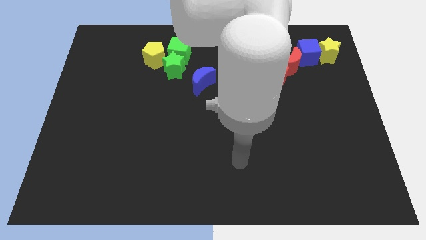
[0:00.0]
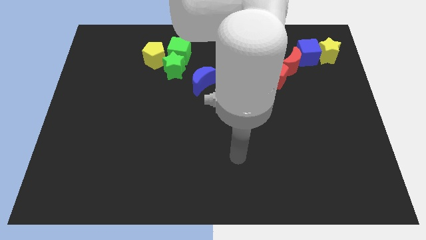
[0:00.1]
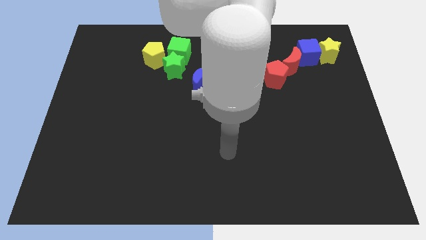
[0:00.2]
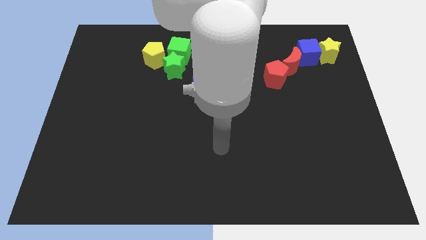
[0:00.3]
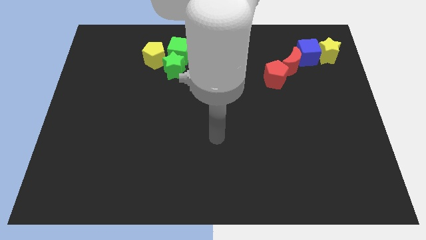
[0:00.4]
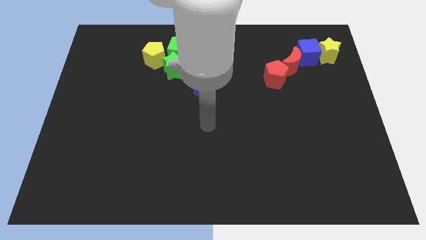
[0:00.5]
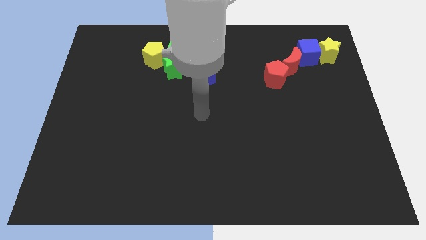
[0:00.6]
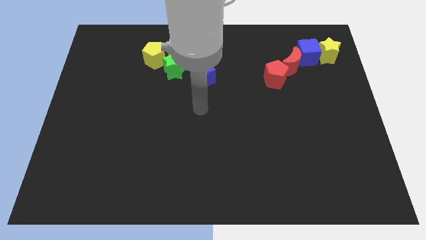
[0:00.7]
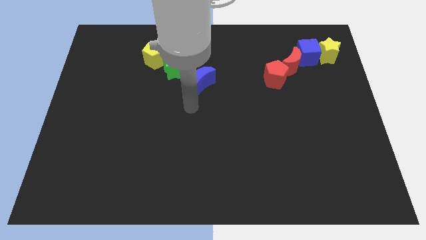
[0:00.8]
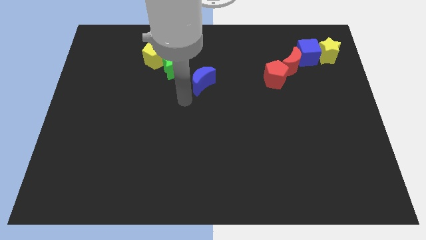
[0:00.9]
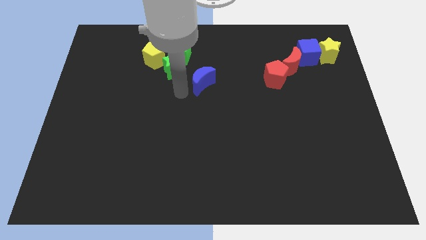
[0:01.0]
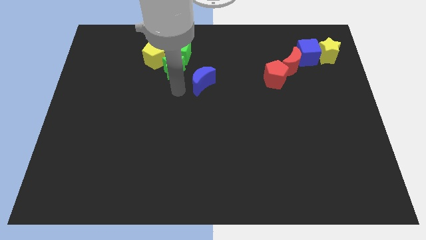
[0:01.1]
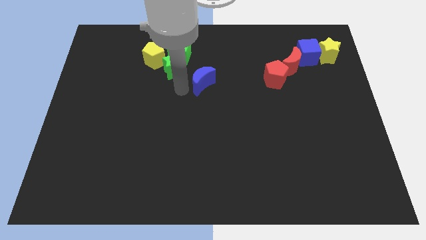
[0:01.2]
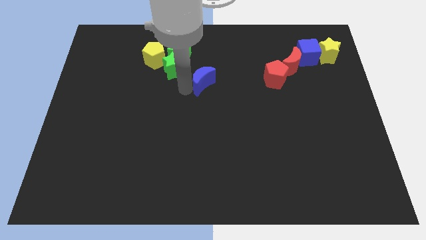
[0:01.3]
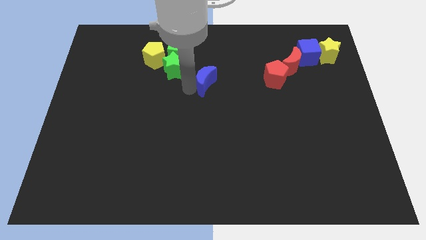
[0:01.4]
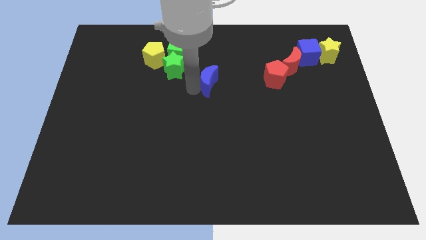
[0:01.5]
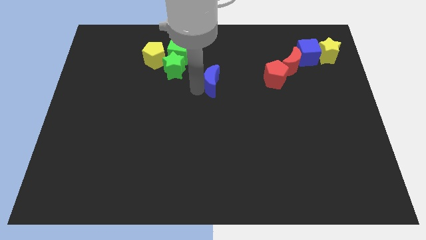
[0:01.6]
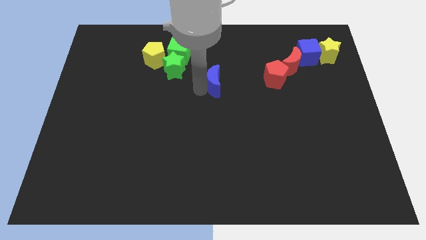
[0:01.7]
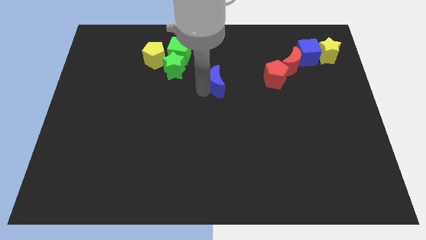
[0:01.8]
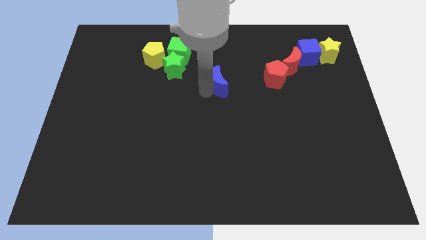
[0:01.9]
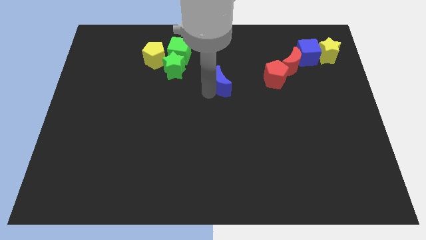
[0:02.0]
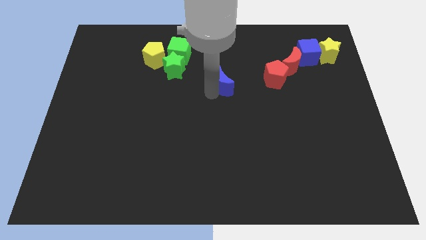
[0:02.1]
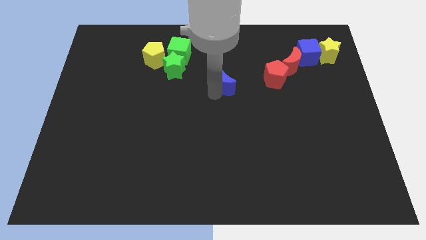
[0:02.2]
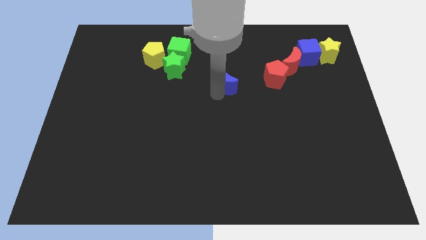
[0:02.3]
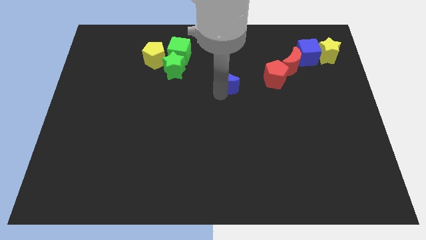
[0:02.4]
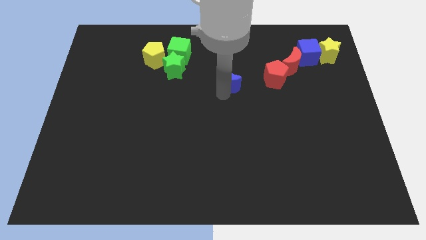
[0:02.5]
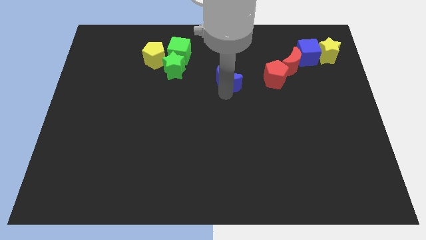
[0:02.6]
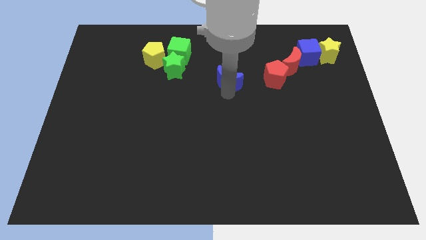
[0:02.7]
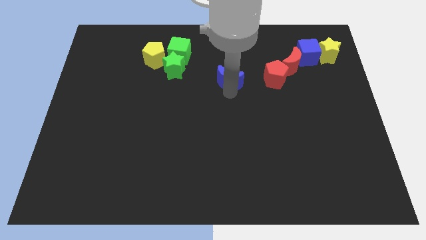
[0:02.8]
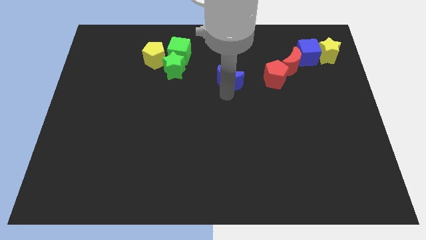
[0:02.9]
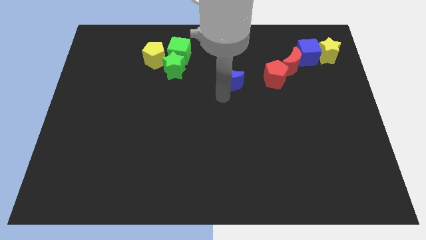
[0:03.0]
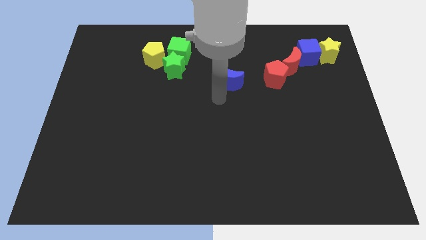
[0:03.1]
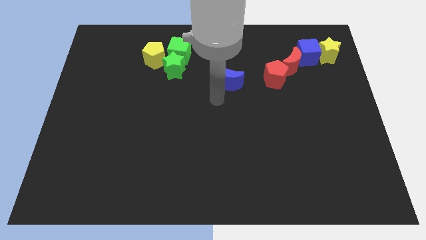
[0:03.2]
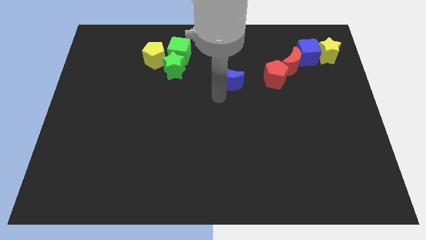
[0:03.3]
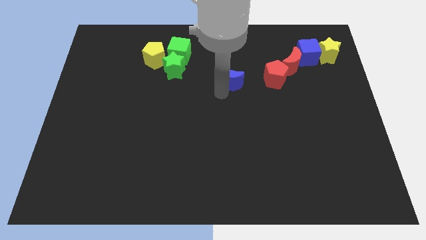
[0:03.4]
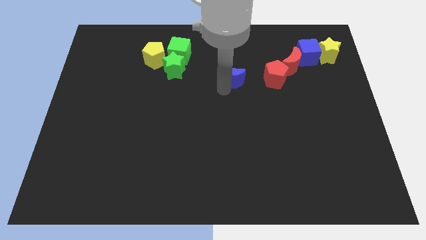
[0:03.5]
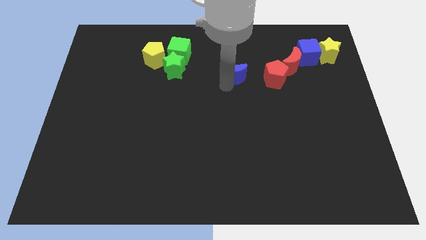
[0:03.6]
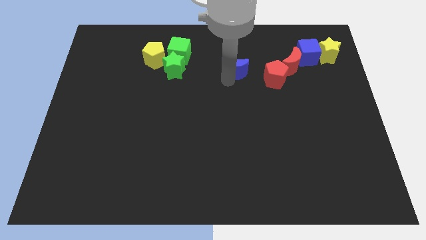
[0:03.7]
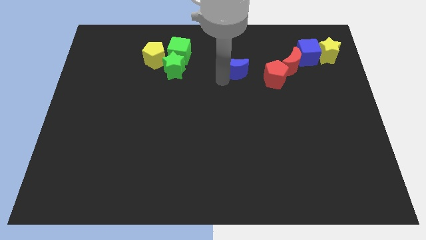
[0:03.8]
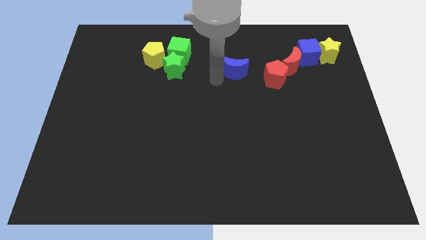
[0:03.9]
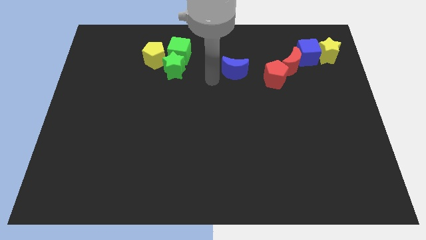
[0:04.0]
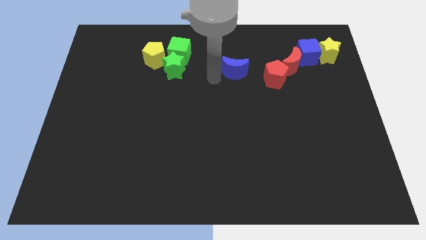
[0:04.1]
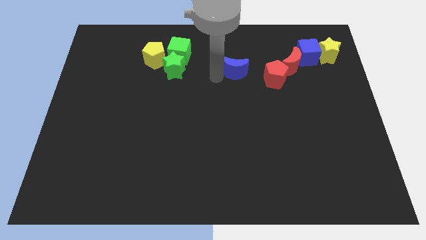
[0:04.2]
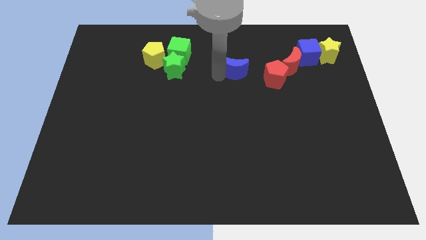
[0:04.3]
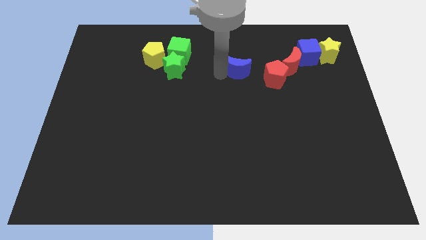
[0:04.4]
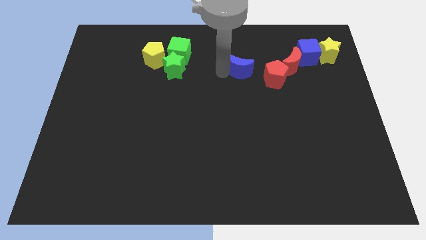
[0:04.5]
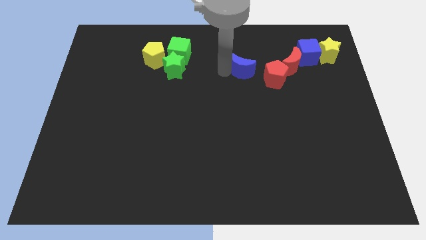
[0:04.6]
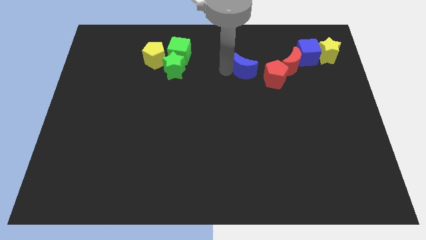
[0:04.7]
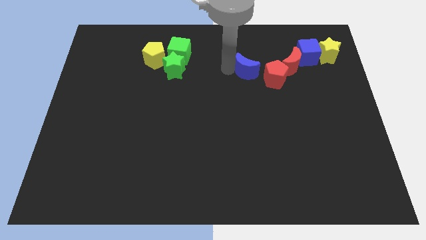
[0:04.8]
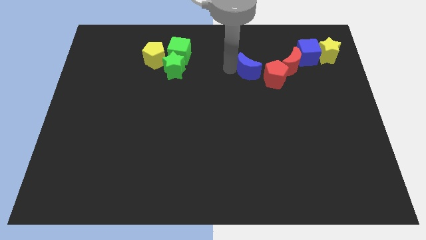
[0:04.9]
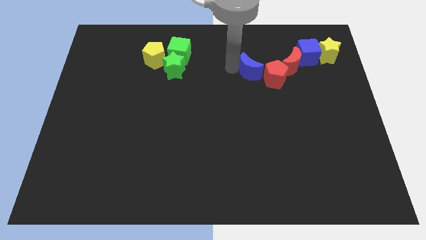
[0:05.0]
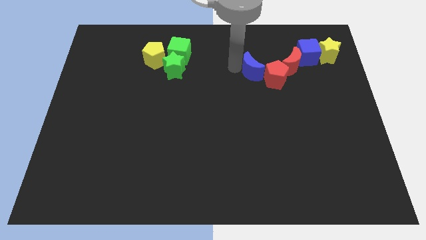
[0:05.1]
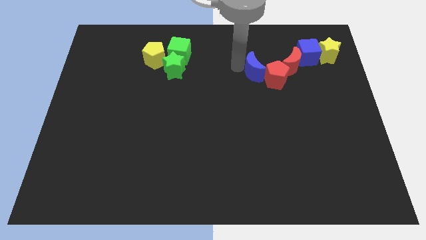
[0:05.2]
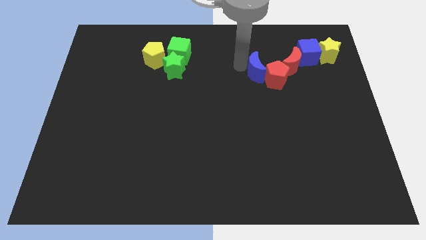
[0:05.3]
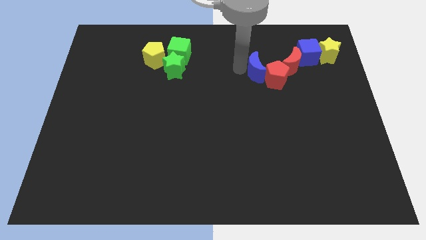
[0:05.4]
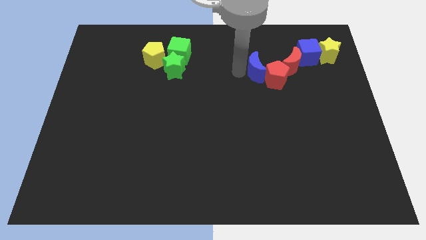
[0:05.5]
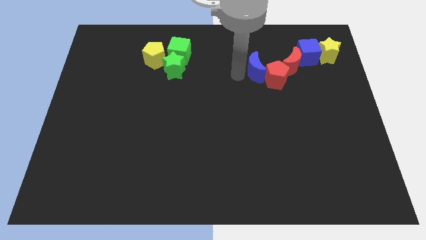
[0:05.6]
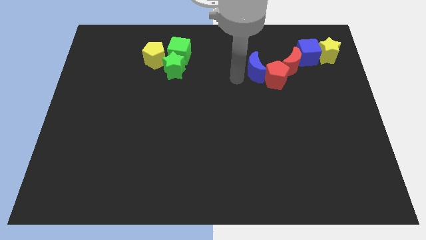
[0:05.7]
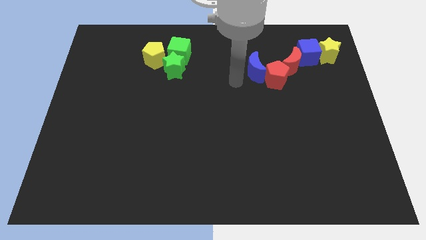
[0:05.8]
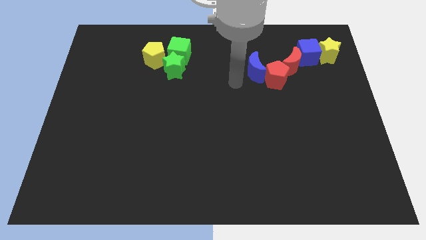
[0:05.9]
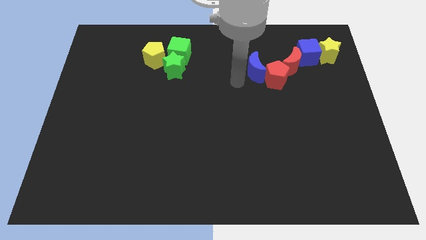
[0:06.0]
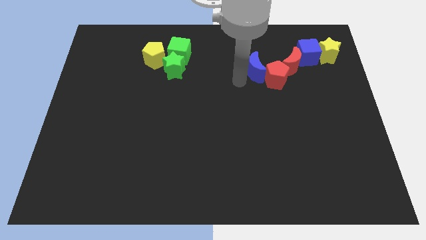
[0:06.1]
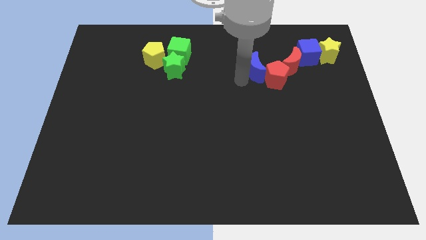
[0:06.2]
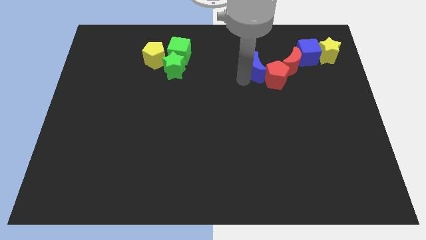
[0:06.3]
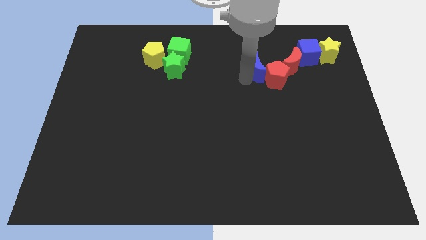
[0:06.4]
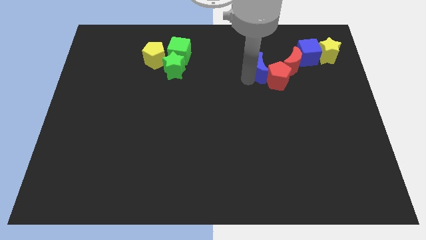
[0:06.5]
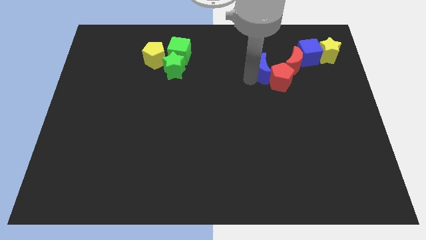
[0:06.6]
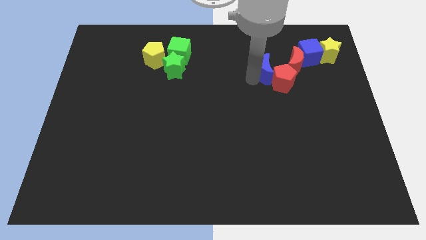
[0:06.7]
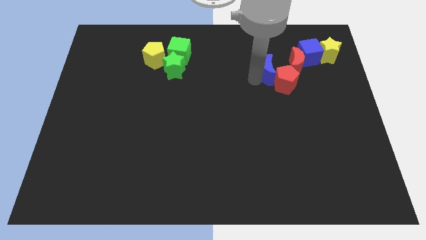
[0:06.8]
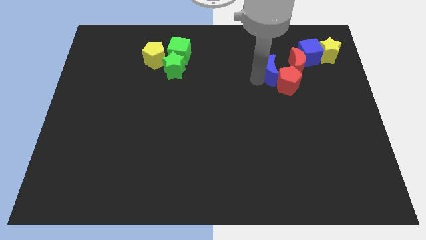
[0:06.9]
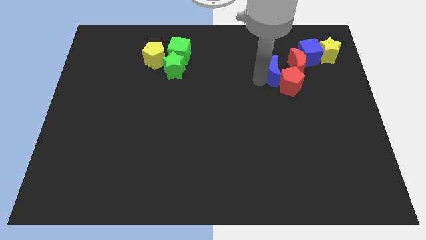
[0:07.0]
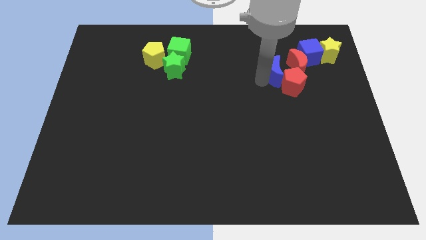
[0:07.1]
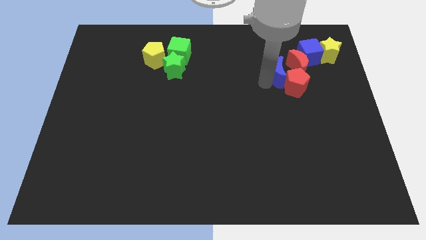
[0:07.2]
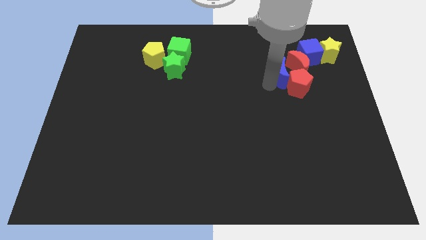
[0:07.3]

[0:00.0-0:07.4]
push the blue moon to the red moon
